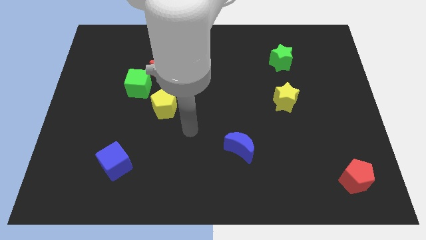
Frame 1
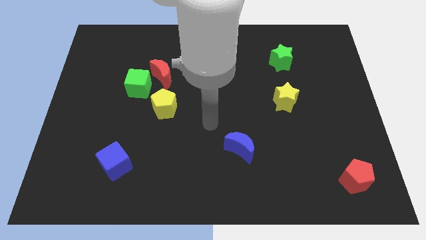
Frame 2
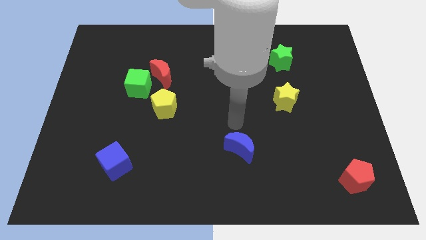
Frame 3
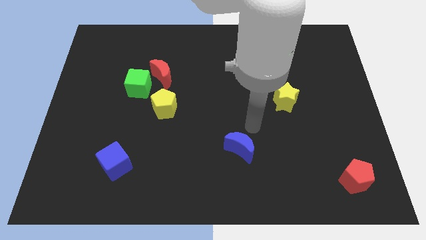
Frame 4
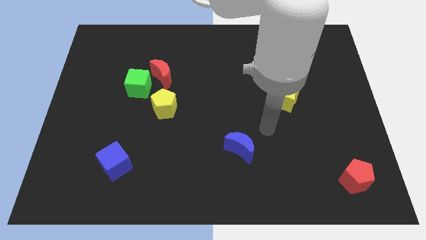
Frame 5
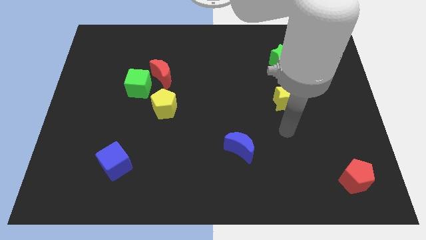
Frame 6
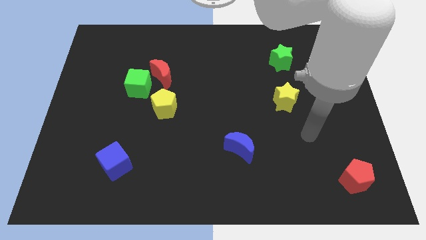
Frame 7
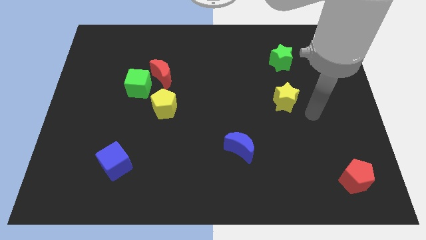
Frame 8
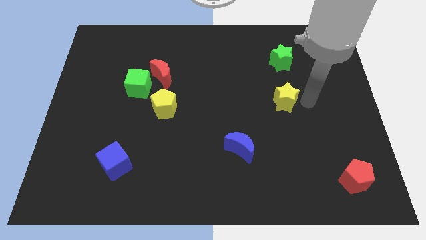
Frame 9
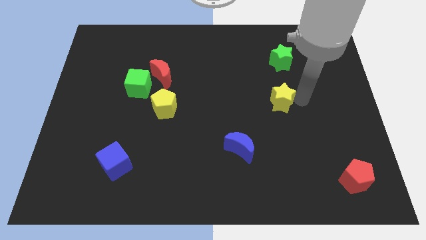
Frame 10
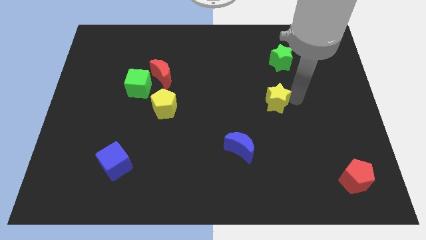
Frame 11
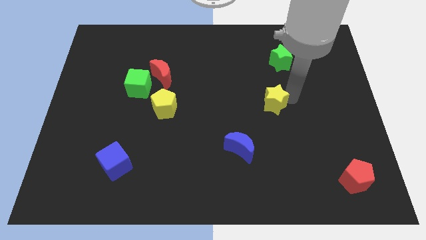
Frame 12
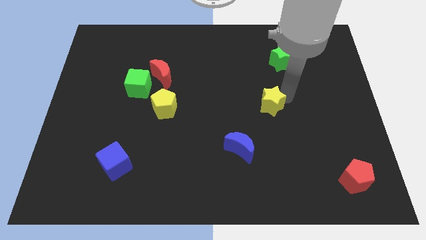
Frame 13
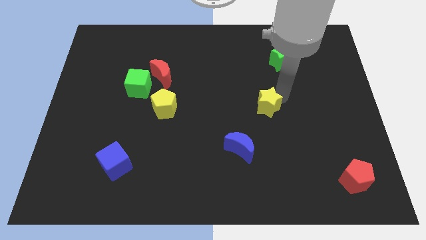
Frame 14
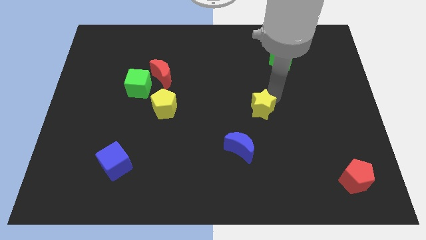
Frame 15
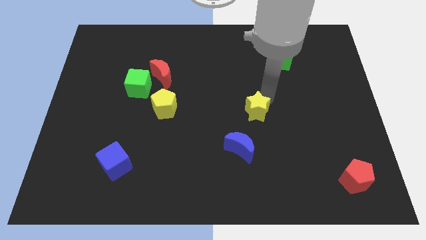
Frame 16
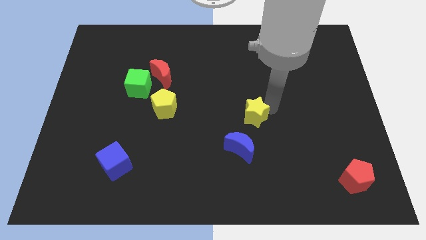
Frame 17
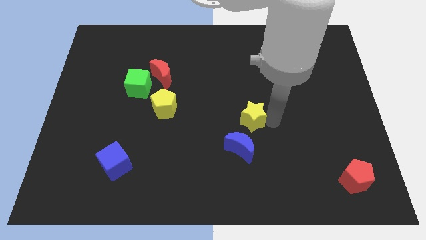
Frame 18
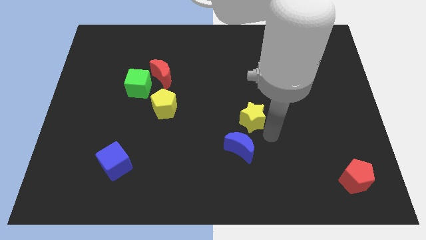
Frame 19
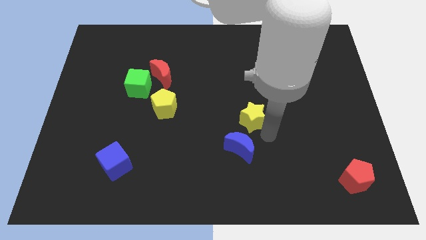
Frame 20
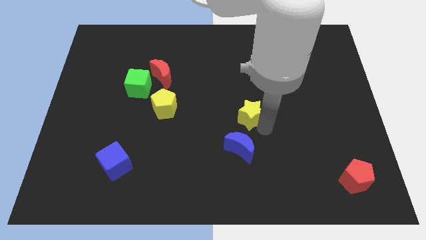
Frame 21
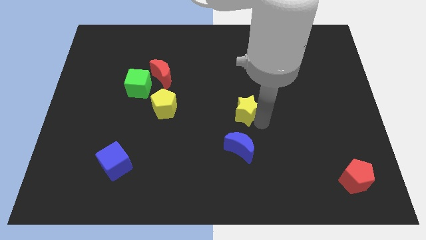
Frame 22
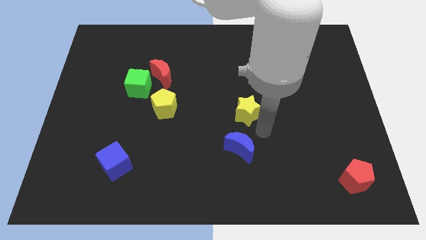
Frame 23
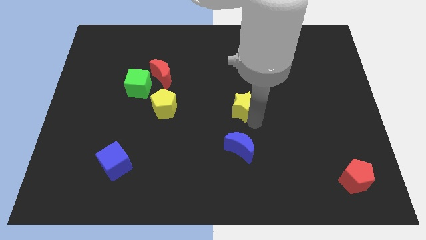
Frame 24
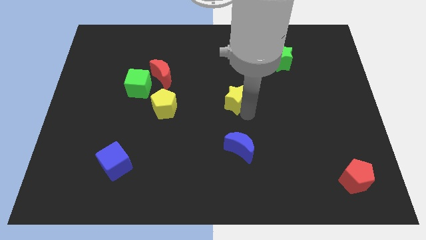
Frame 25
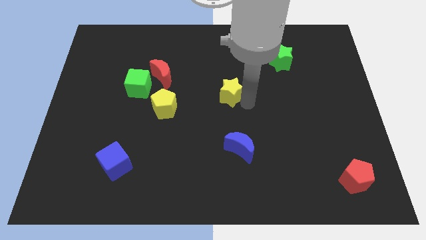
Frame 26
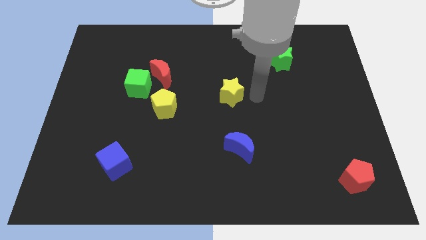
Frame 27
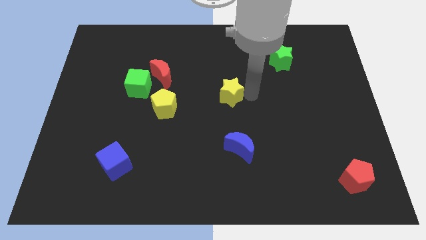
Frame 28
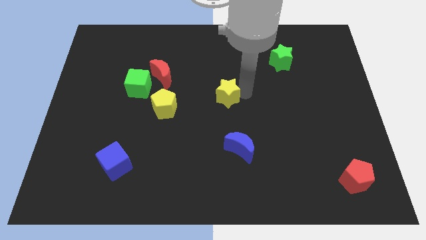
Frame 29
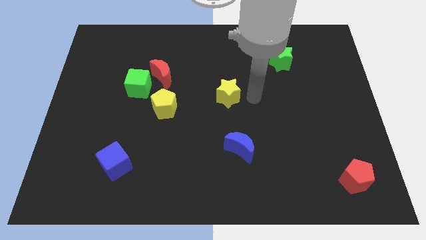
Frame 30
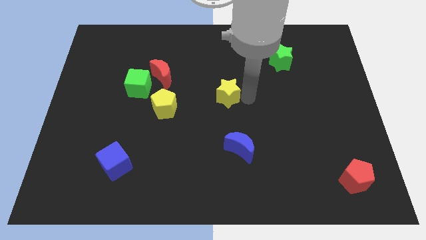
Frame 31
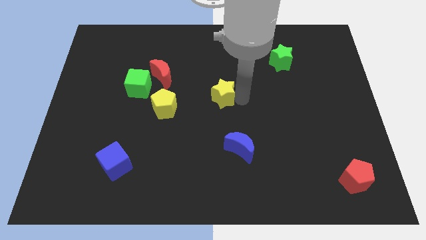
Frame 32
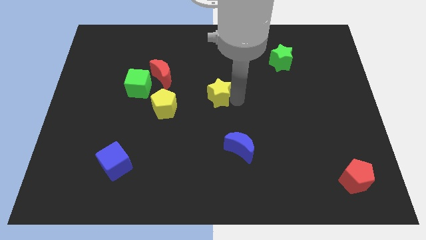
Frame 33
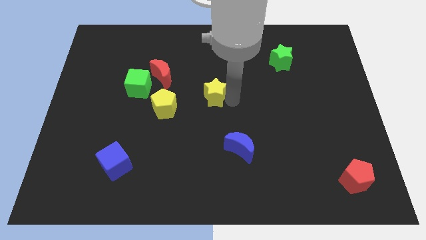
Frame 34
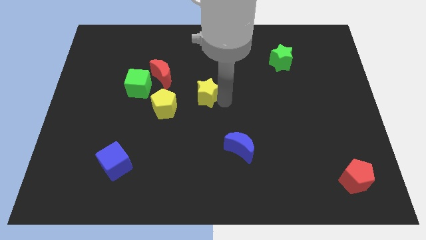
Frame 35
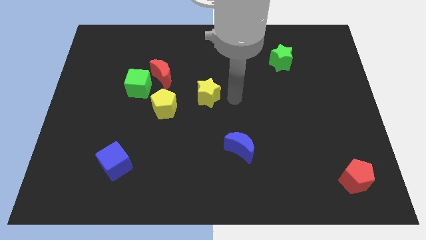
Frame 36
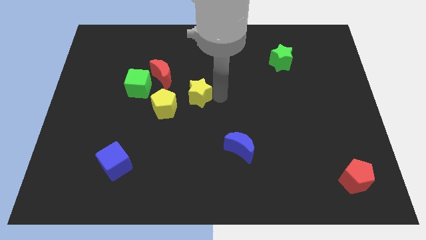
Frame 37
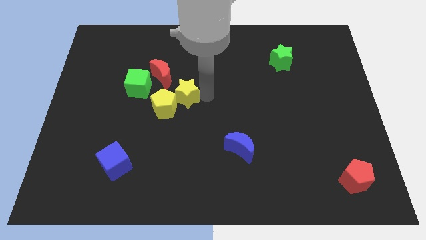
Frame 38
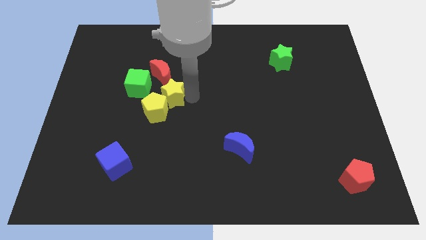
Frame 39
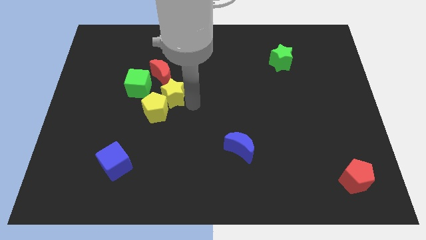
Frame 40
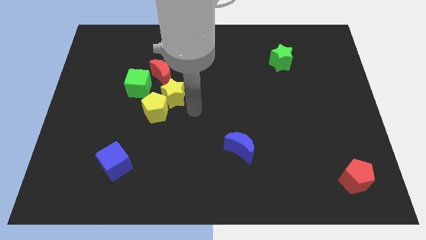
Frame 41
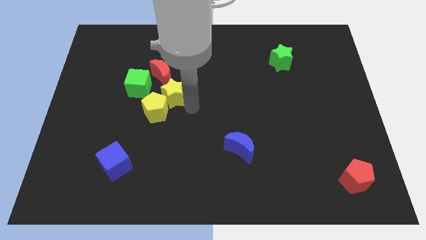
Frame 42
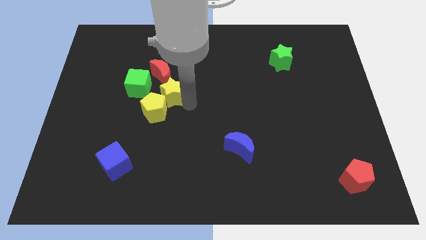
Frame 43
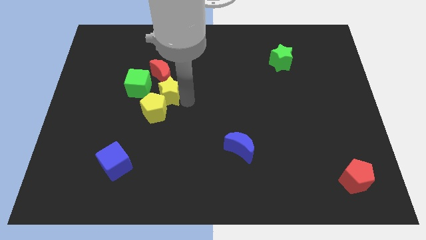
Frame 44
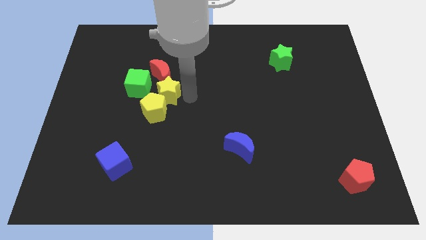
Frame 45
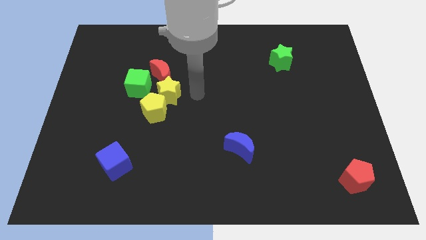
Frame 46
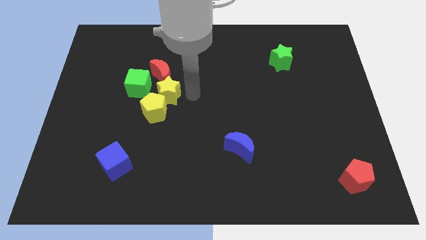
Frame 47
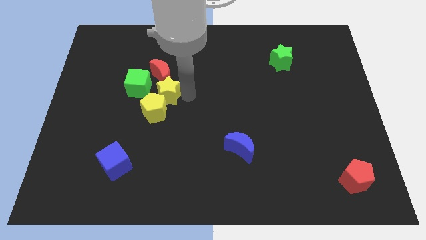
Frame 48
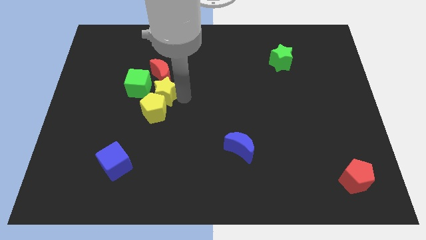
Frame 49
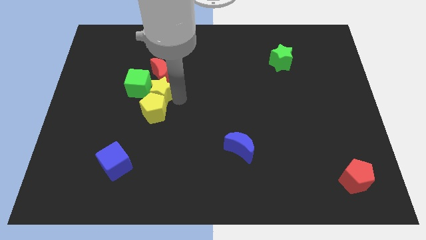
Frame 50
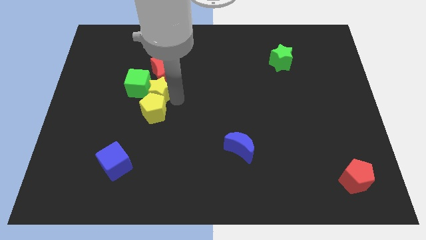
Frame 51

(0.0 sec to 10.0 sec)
move the yellow star next to the green cube

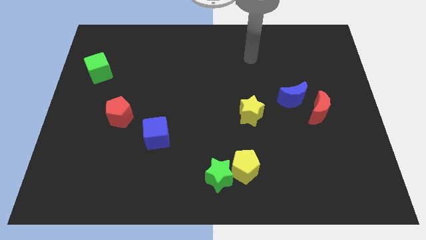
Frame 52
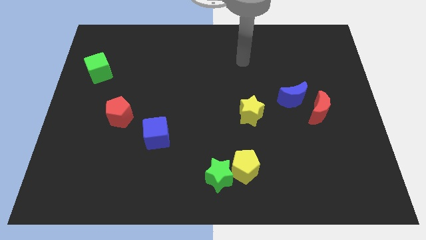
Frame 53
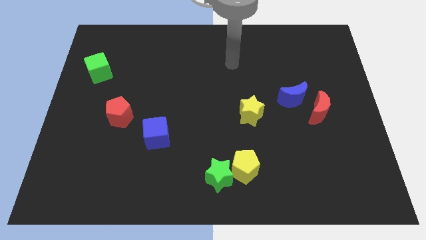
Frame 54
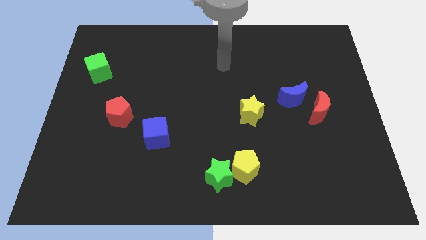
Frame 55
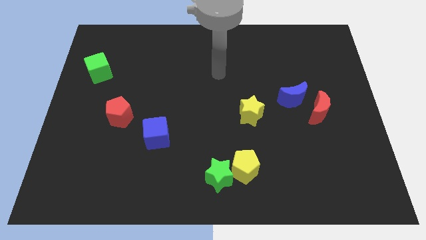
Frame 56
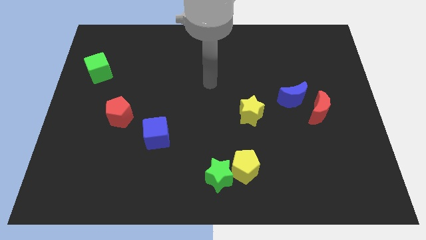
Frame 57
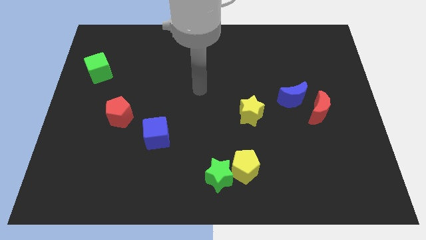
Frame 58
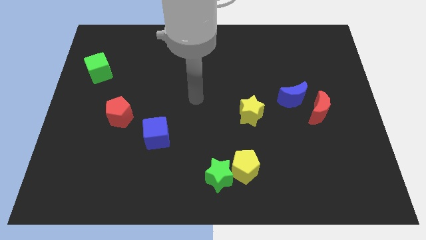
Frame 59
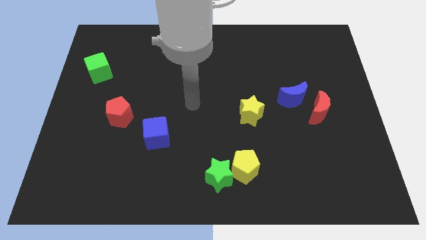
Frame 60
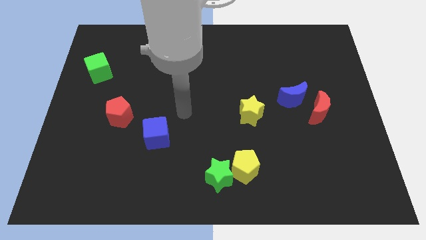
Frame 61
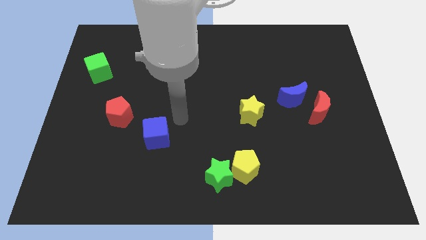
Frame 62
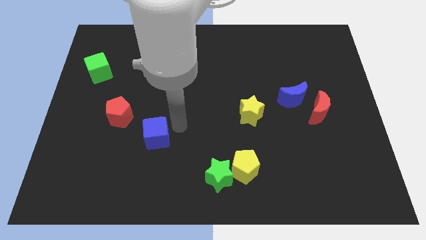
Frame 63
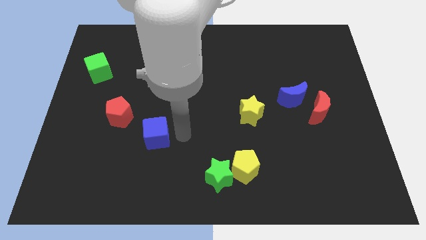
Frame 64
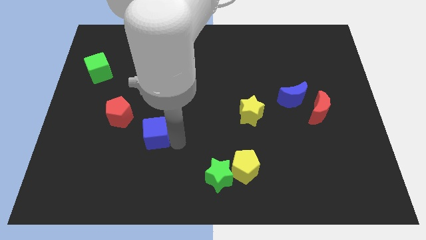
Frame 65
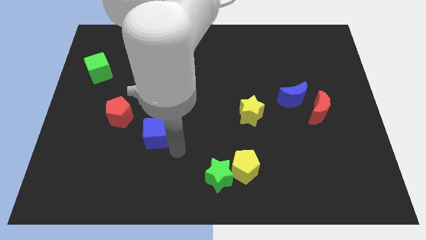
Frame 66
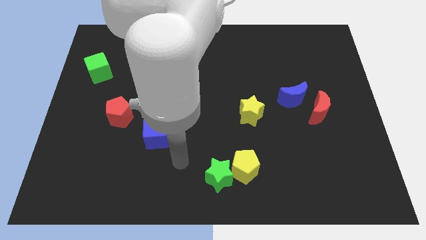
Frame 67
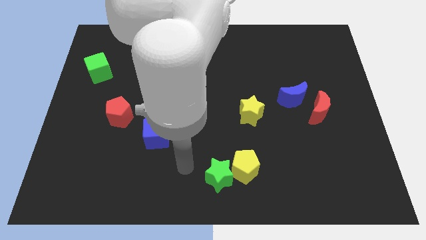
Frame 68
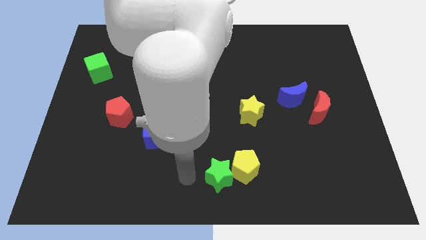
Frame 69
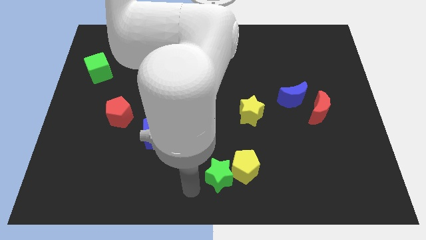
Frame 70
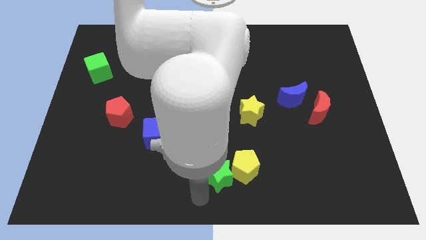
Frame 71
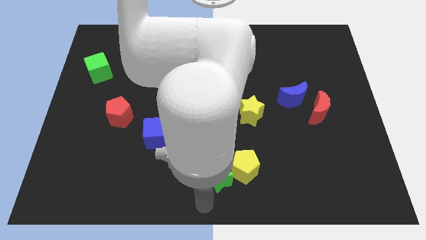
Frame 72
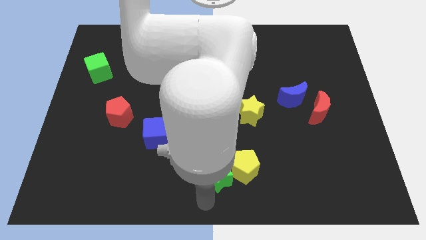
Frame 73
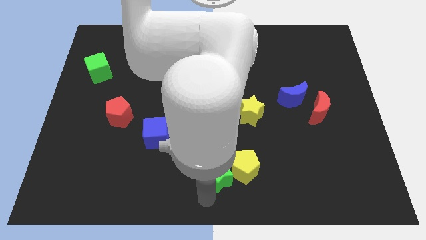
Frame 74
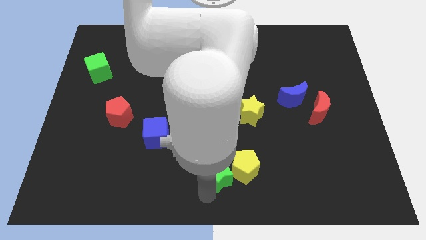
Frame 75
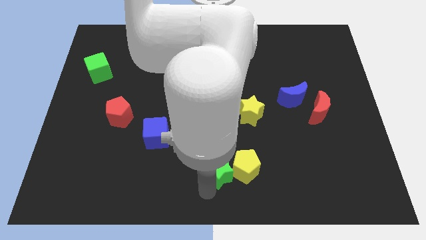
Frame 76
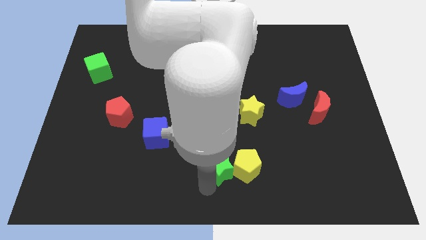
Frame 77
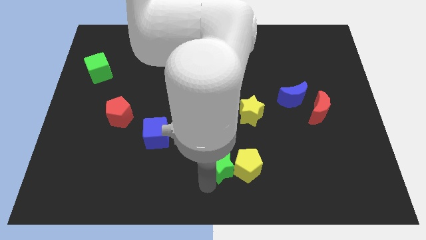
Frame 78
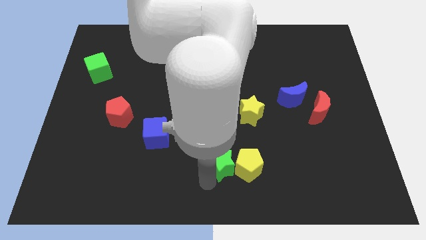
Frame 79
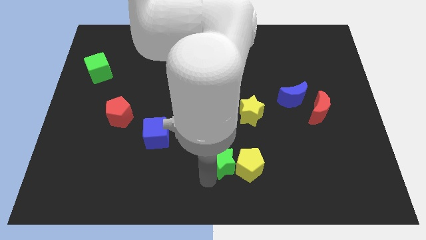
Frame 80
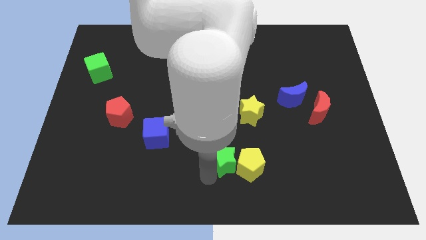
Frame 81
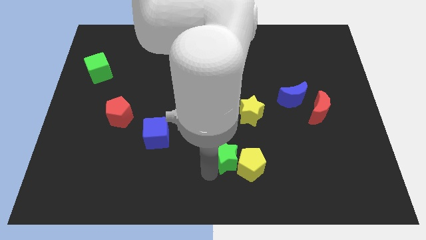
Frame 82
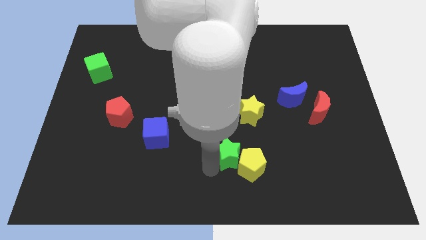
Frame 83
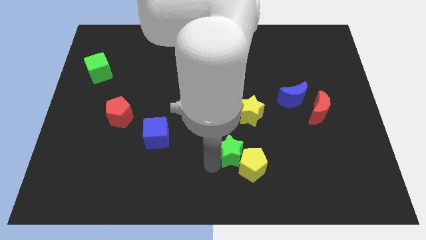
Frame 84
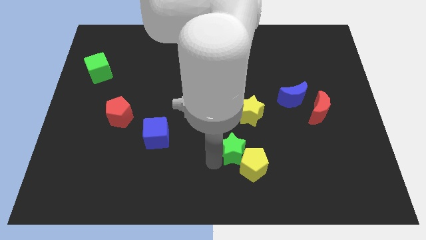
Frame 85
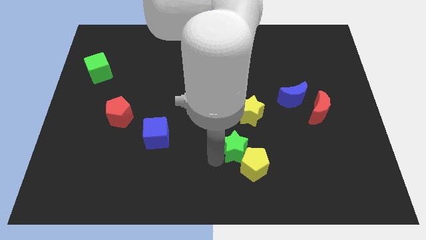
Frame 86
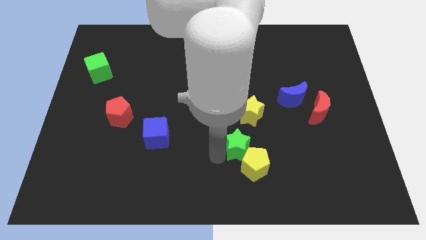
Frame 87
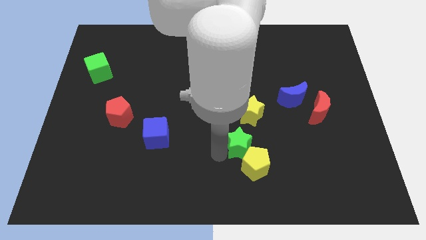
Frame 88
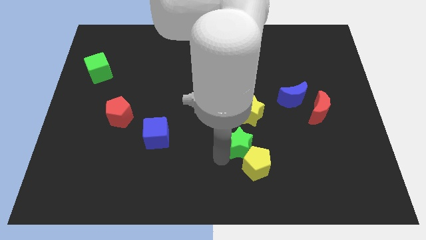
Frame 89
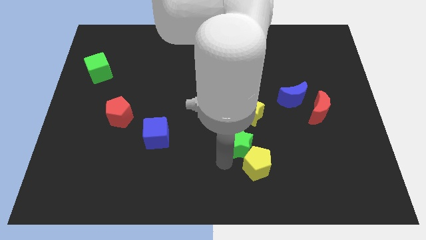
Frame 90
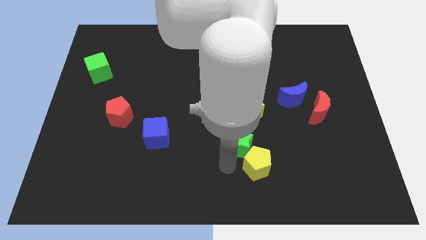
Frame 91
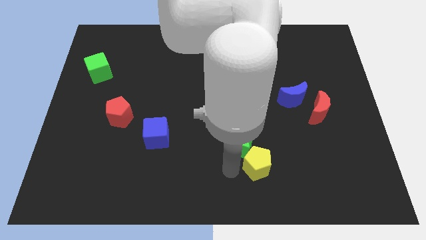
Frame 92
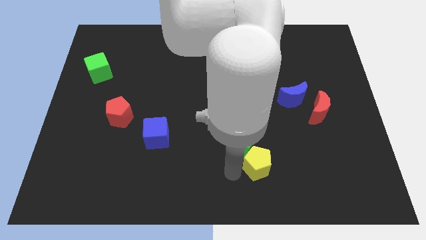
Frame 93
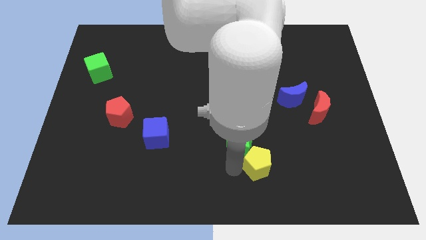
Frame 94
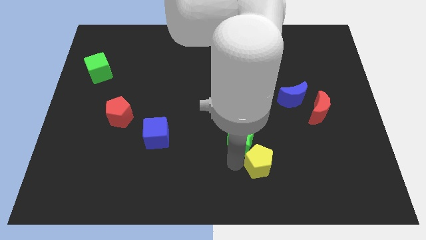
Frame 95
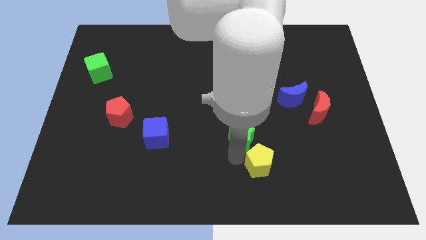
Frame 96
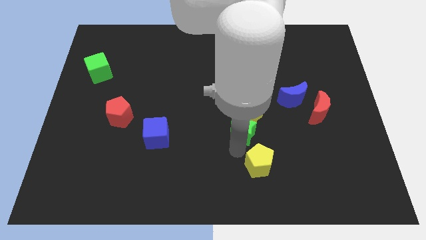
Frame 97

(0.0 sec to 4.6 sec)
push the green star next to the yellow star
